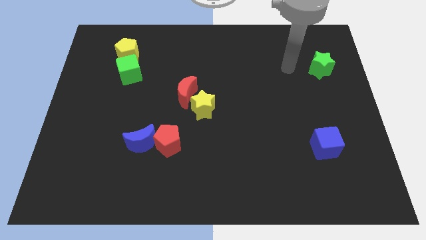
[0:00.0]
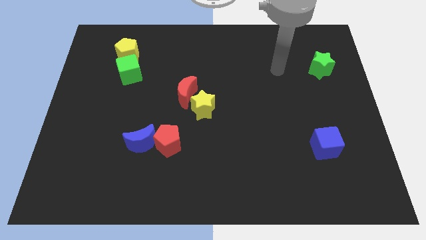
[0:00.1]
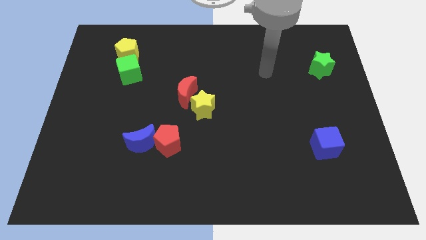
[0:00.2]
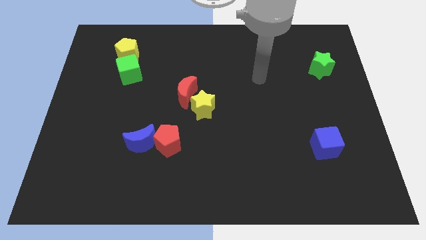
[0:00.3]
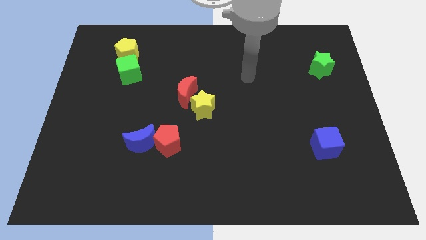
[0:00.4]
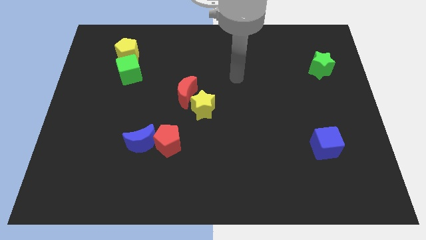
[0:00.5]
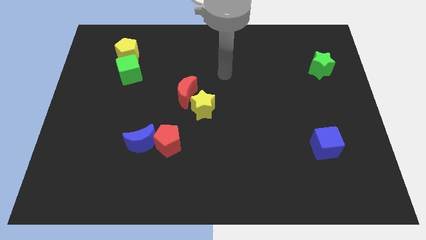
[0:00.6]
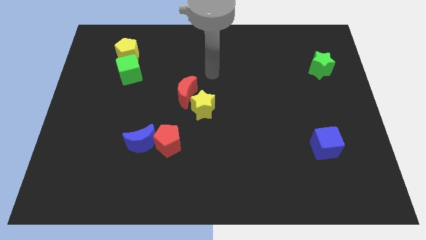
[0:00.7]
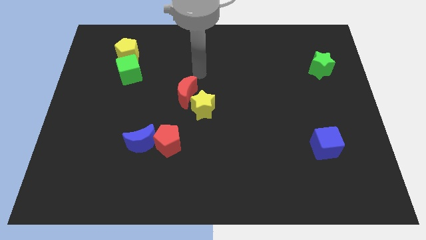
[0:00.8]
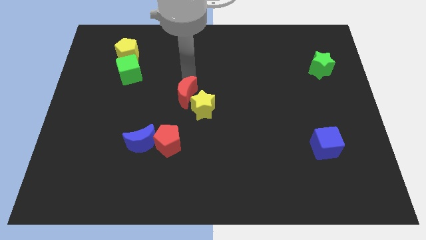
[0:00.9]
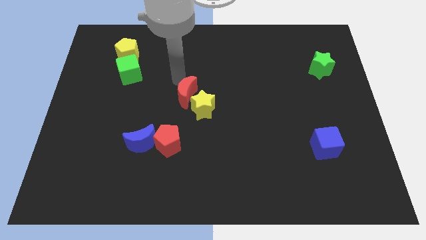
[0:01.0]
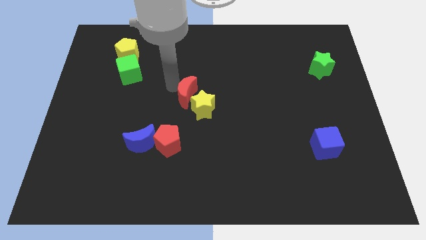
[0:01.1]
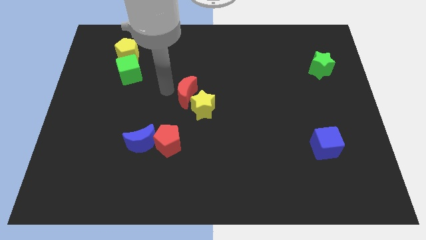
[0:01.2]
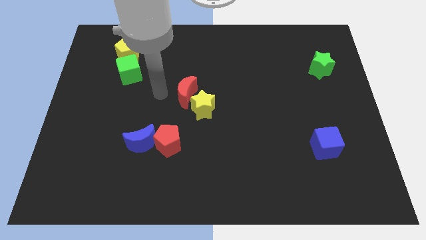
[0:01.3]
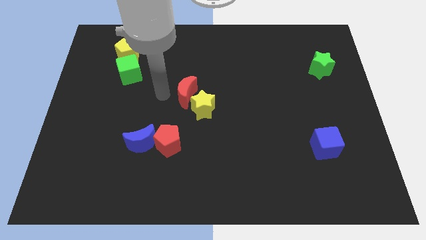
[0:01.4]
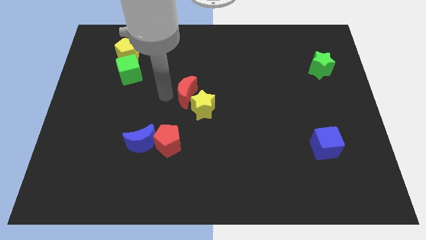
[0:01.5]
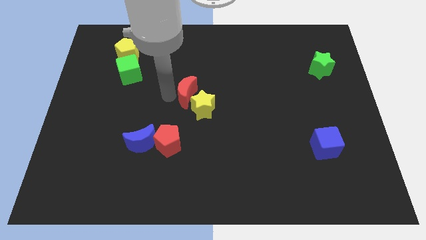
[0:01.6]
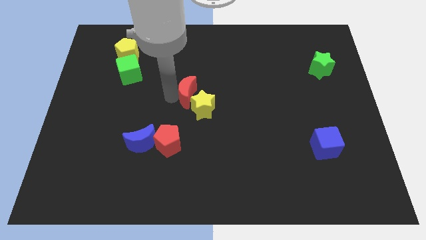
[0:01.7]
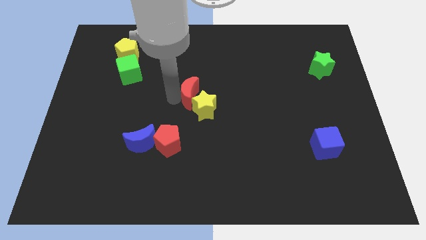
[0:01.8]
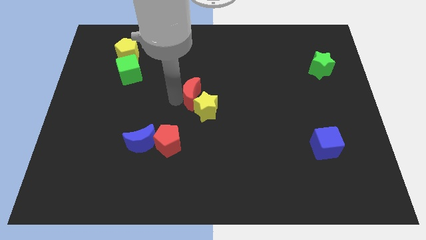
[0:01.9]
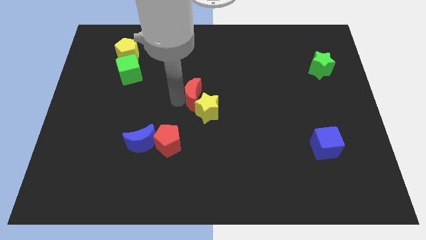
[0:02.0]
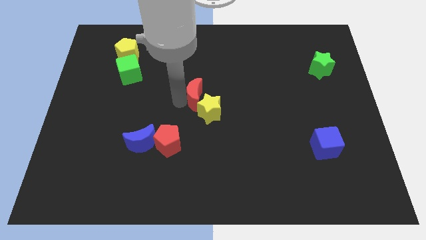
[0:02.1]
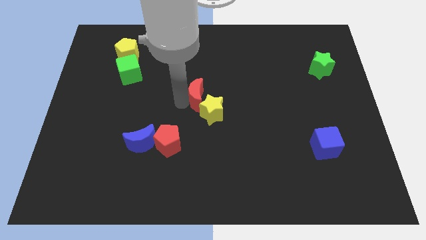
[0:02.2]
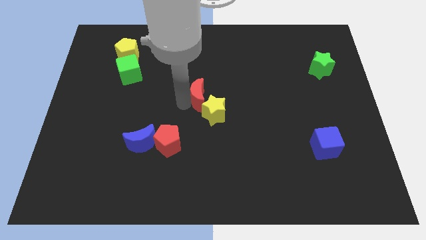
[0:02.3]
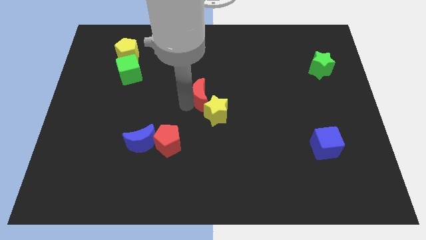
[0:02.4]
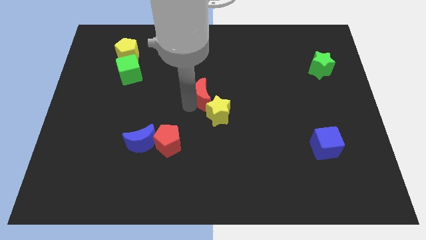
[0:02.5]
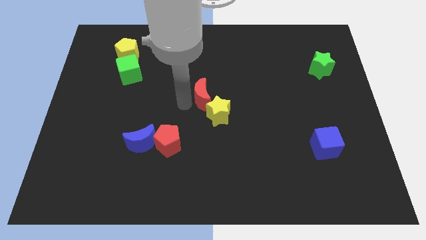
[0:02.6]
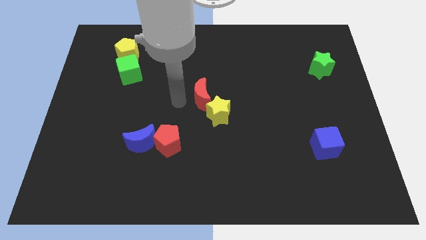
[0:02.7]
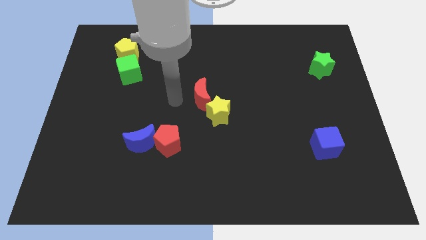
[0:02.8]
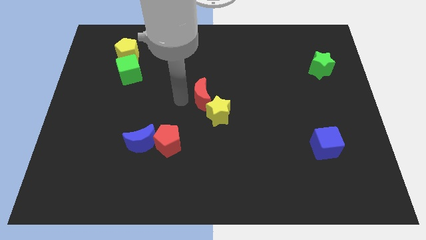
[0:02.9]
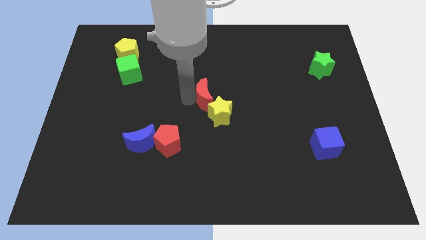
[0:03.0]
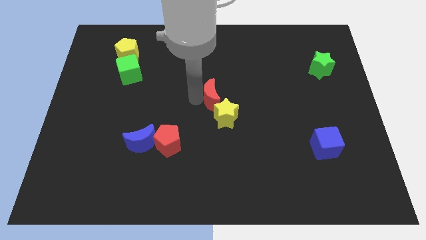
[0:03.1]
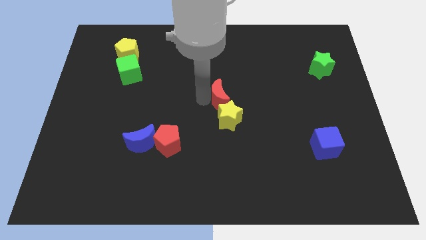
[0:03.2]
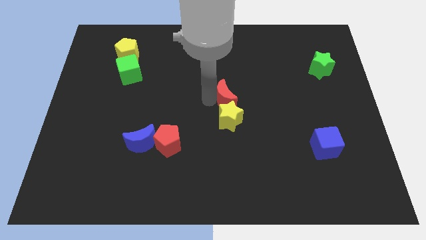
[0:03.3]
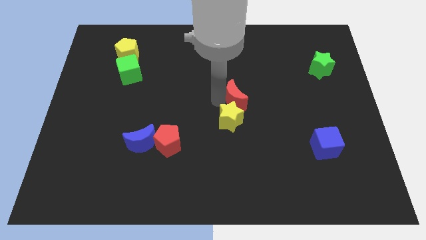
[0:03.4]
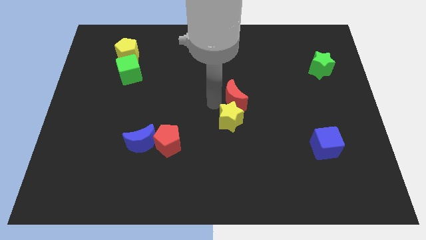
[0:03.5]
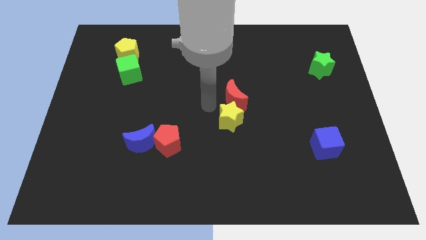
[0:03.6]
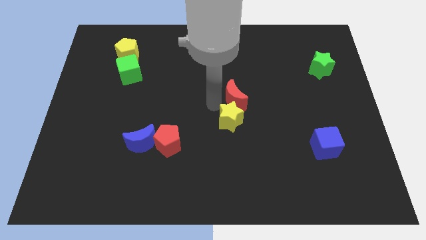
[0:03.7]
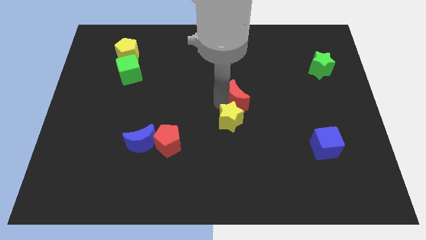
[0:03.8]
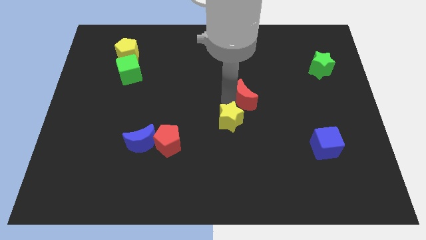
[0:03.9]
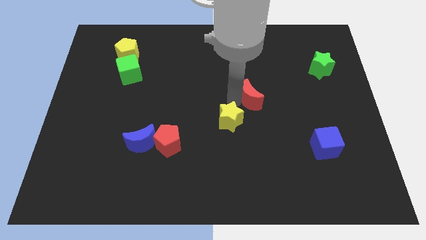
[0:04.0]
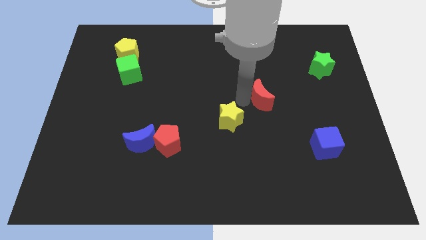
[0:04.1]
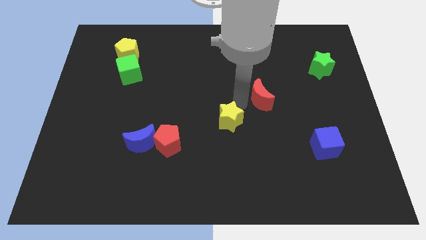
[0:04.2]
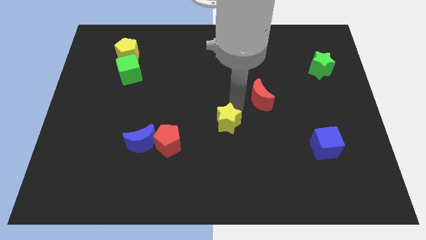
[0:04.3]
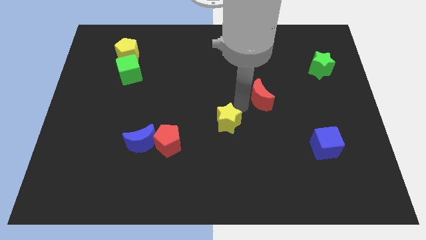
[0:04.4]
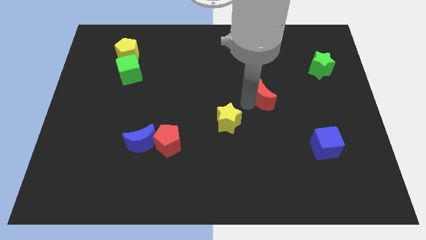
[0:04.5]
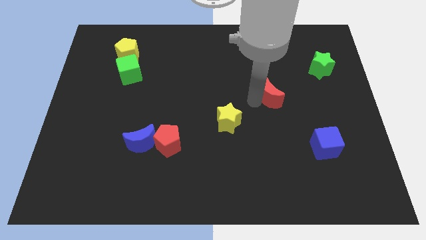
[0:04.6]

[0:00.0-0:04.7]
push the red moon right

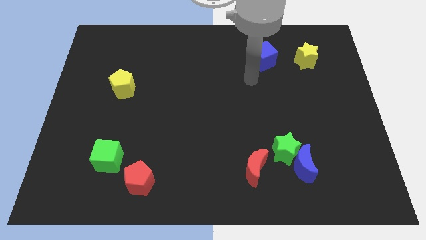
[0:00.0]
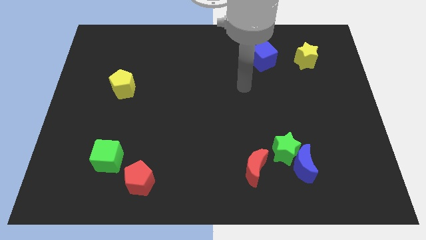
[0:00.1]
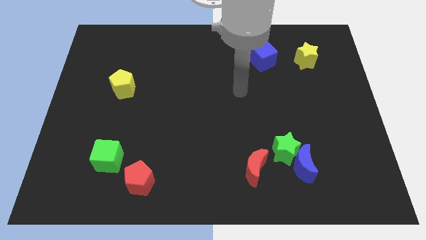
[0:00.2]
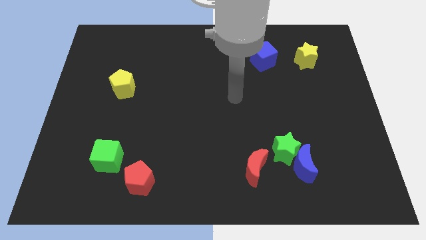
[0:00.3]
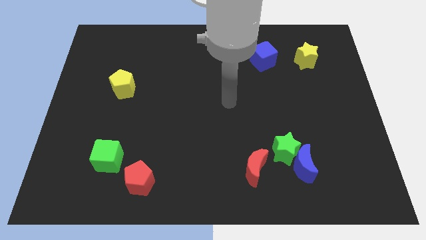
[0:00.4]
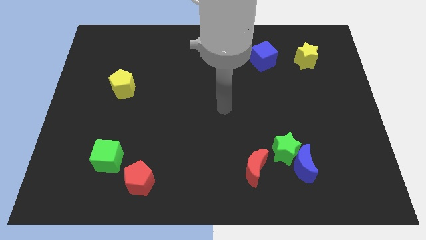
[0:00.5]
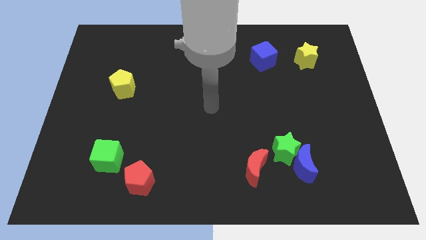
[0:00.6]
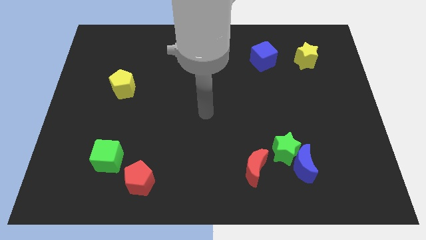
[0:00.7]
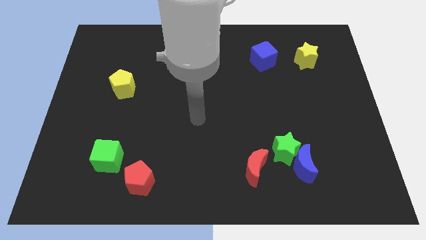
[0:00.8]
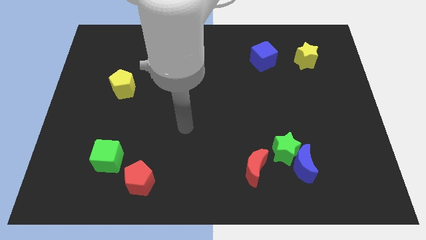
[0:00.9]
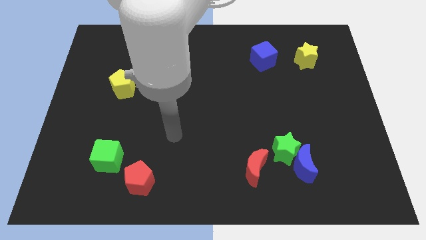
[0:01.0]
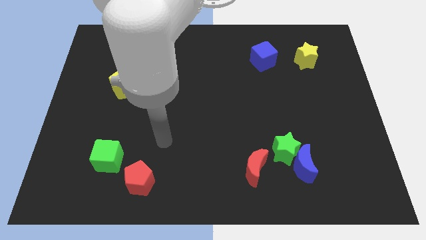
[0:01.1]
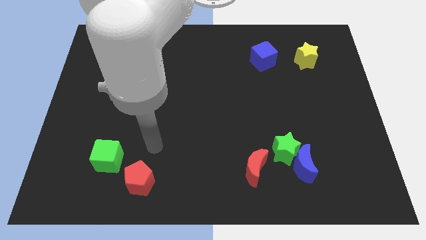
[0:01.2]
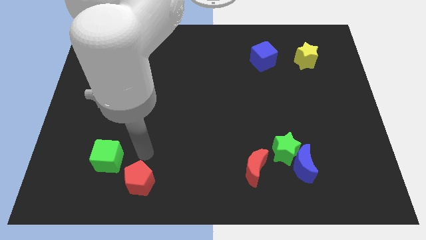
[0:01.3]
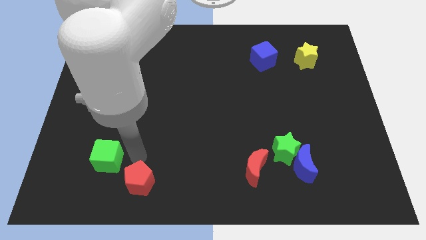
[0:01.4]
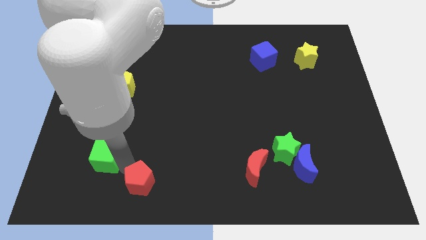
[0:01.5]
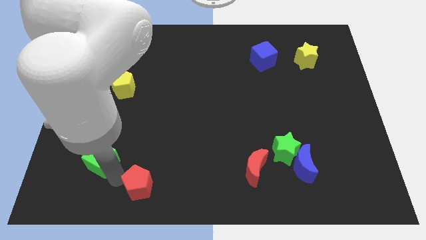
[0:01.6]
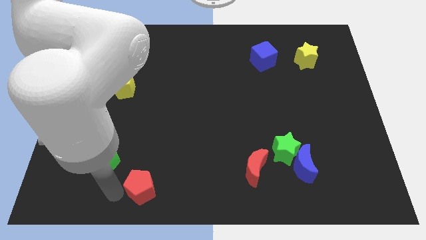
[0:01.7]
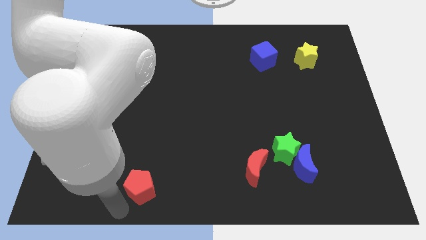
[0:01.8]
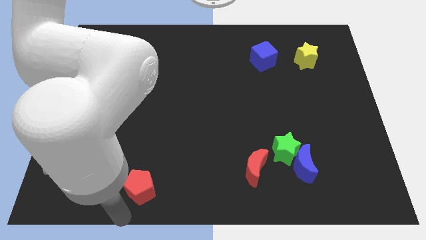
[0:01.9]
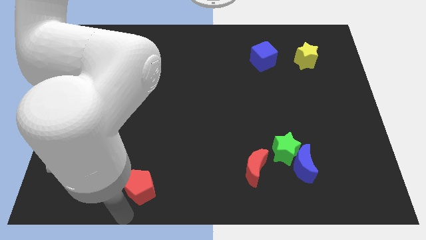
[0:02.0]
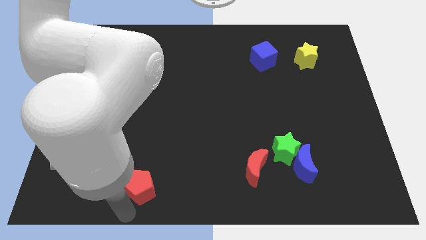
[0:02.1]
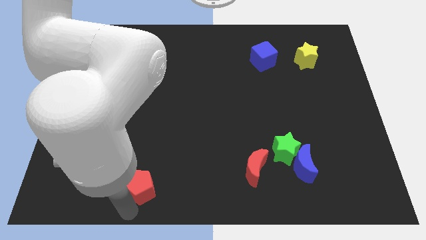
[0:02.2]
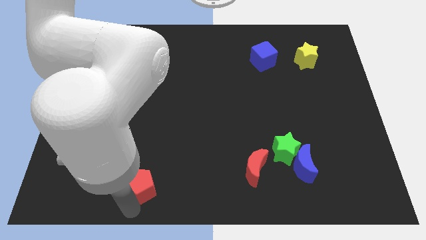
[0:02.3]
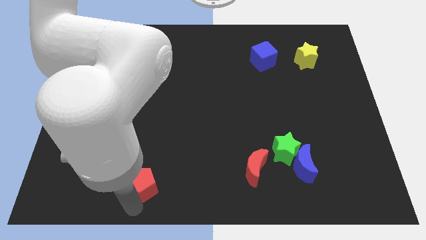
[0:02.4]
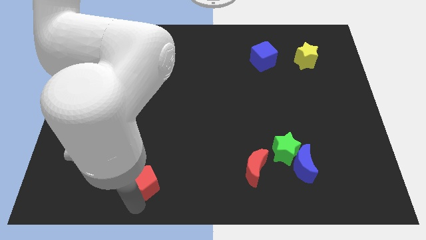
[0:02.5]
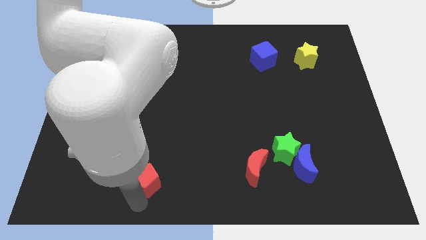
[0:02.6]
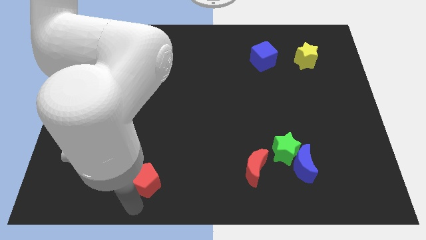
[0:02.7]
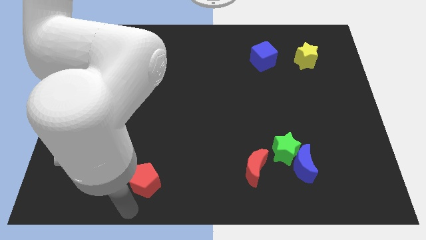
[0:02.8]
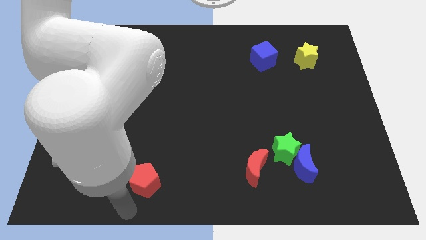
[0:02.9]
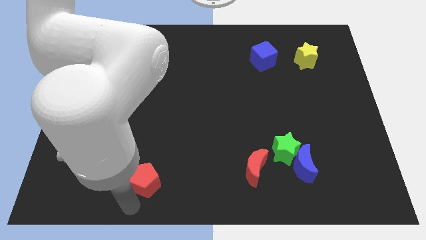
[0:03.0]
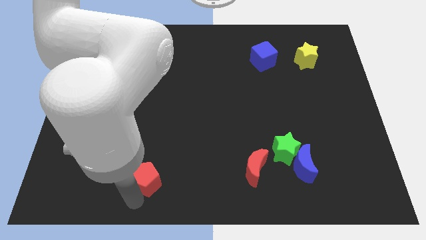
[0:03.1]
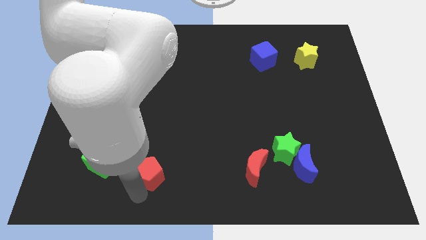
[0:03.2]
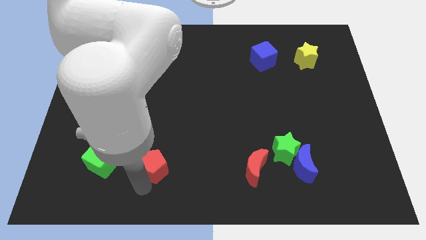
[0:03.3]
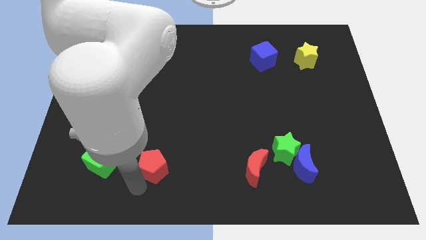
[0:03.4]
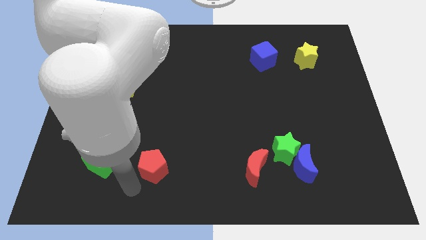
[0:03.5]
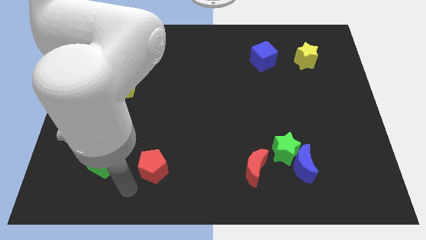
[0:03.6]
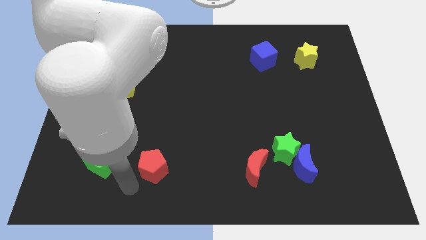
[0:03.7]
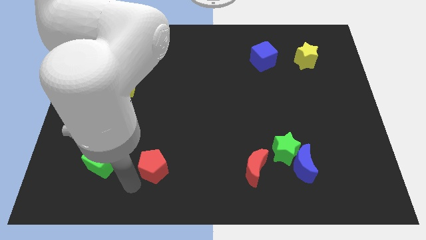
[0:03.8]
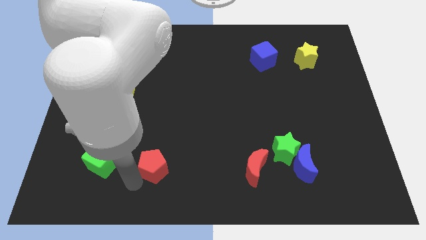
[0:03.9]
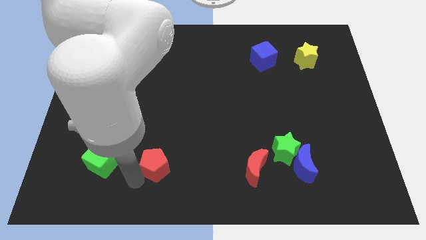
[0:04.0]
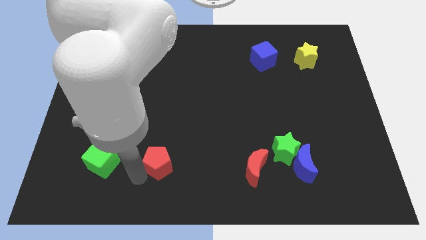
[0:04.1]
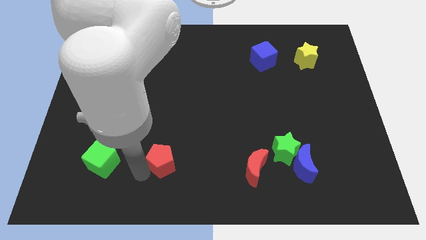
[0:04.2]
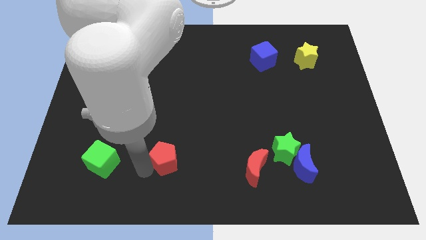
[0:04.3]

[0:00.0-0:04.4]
slightly slide the red pentagon up and to the right
